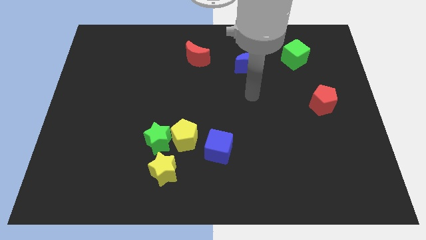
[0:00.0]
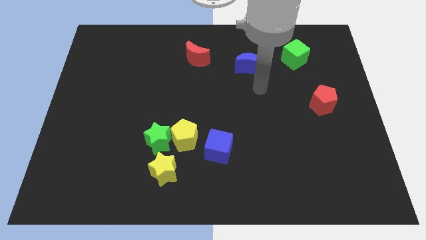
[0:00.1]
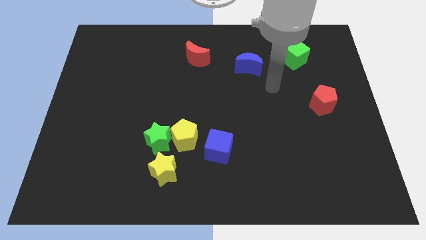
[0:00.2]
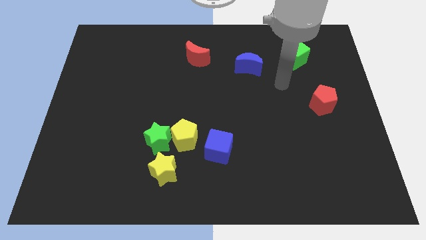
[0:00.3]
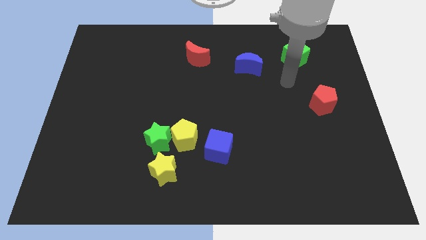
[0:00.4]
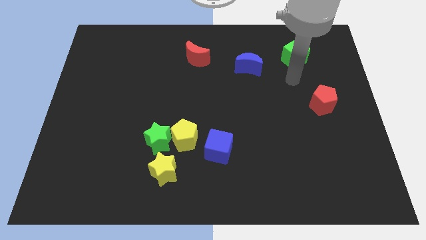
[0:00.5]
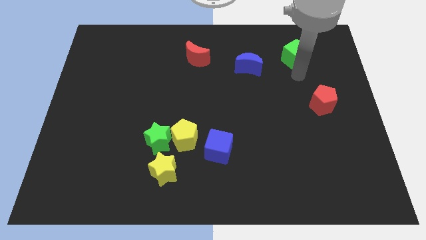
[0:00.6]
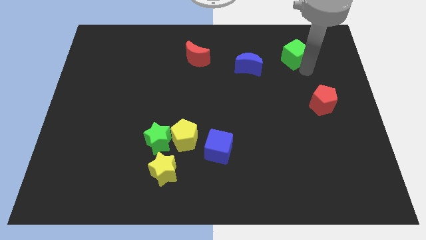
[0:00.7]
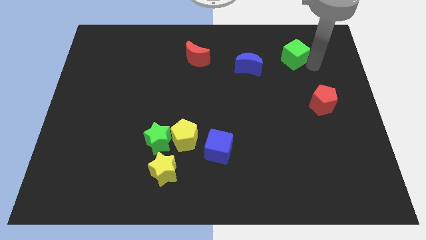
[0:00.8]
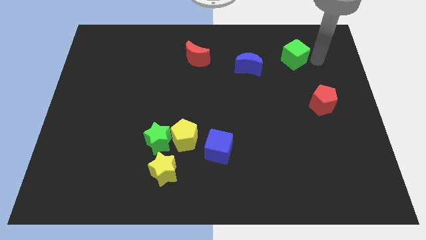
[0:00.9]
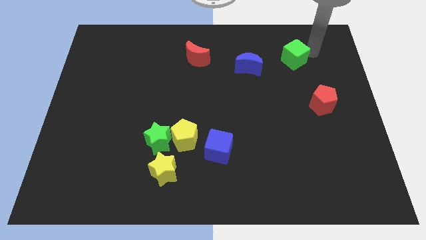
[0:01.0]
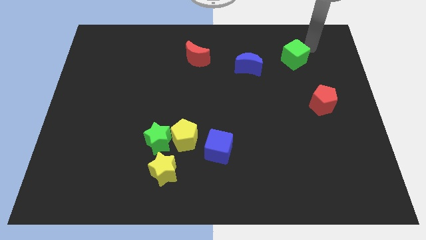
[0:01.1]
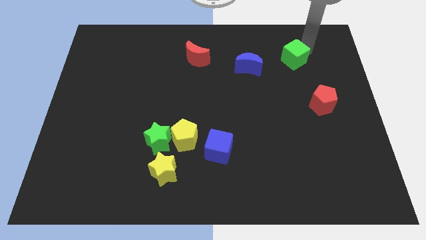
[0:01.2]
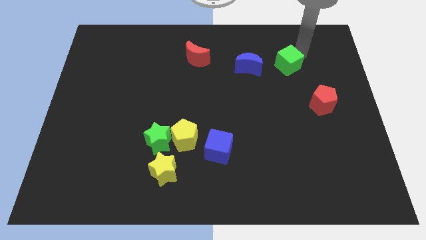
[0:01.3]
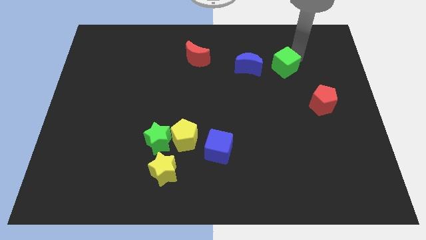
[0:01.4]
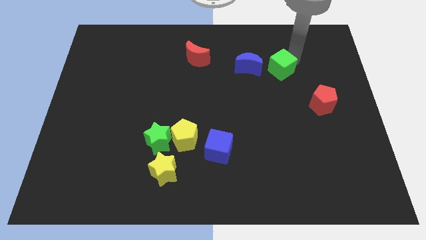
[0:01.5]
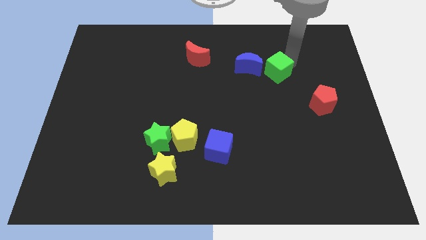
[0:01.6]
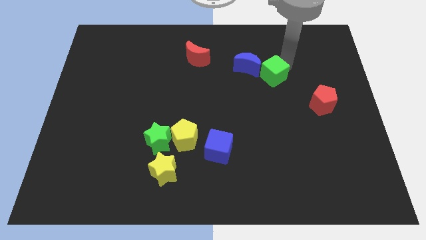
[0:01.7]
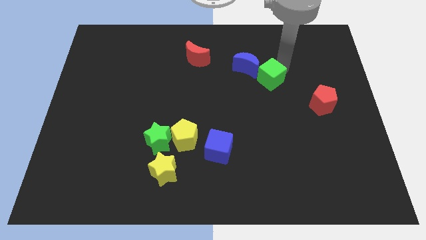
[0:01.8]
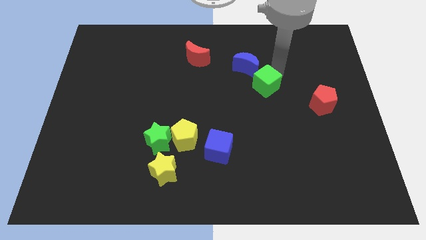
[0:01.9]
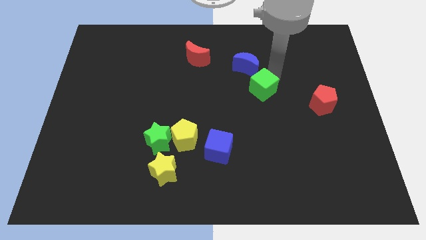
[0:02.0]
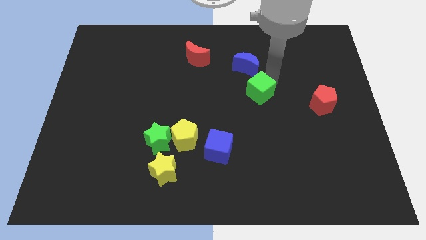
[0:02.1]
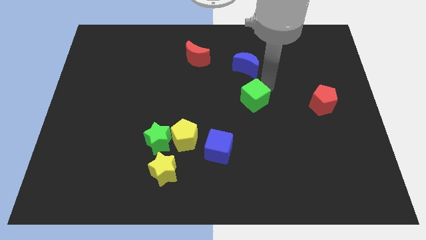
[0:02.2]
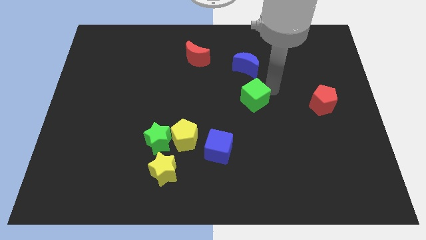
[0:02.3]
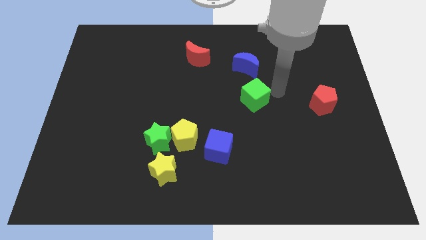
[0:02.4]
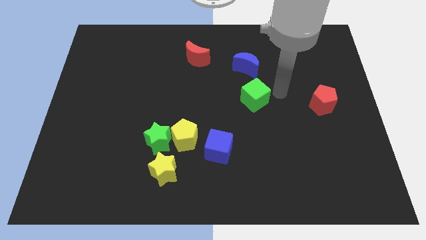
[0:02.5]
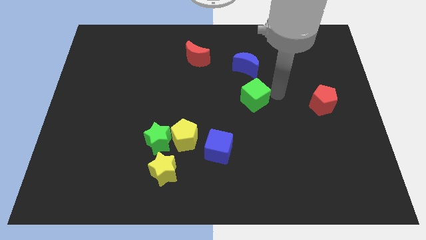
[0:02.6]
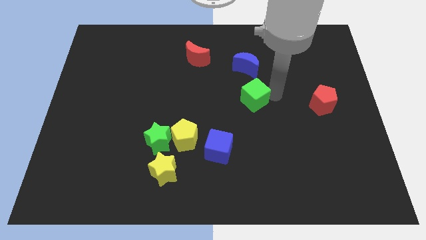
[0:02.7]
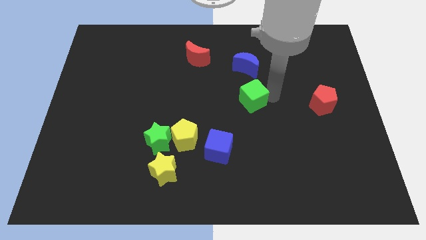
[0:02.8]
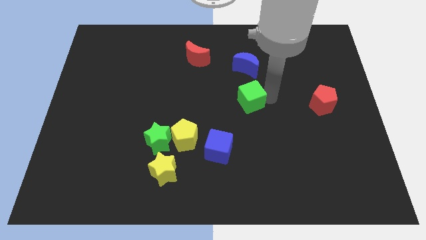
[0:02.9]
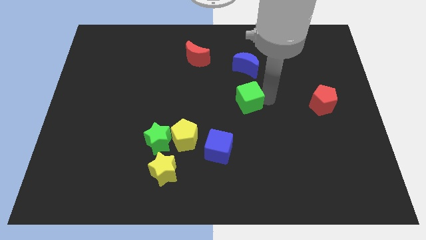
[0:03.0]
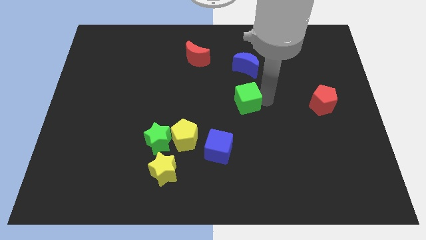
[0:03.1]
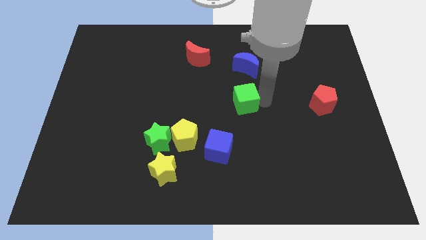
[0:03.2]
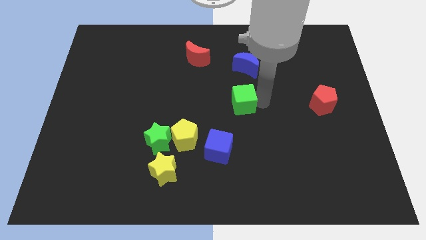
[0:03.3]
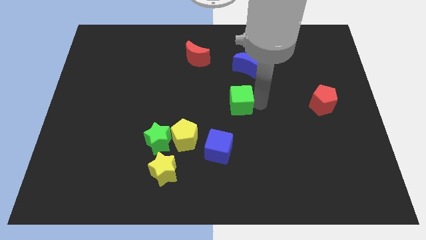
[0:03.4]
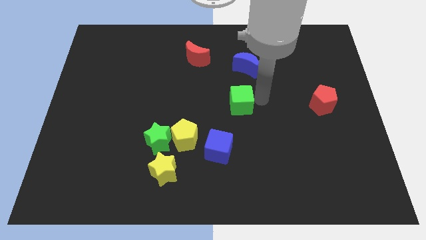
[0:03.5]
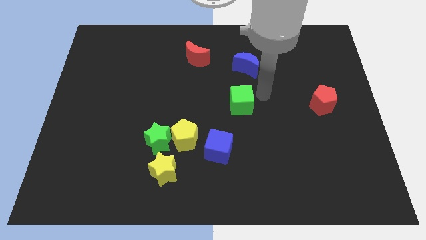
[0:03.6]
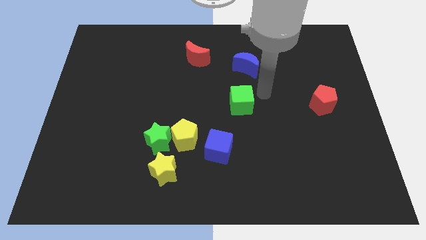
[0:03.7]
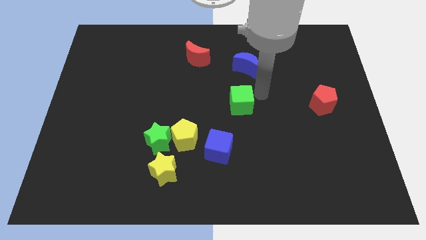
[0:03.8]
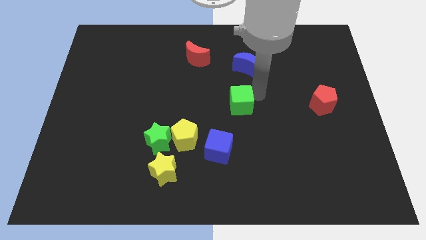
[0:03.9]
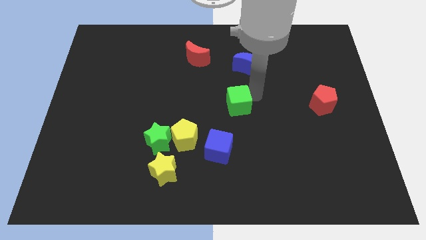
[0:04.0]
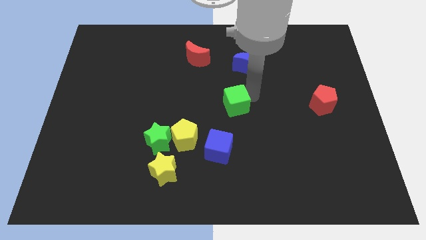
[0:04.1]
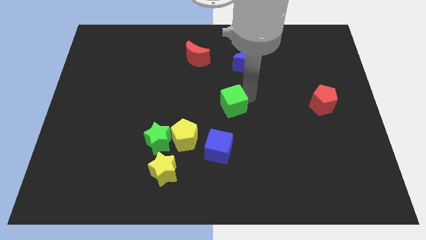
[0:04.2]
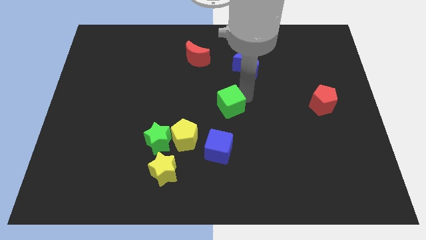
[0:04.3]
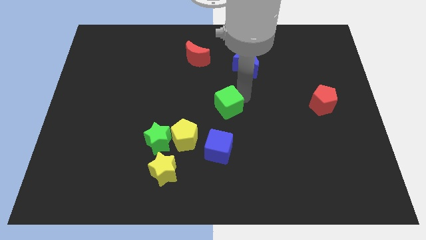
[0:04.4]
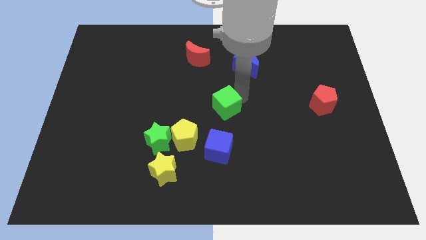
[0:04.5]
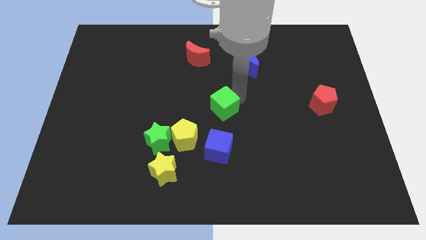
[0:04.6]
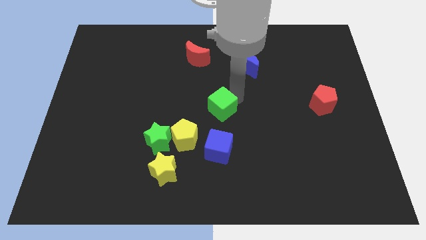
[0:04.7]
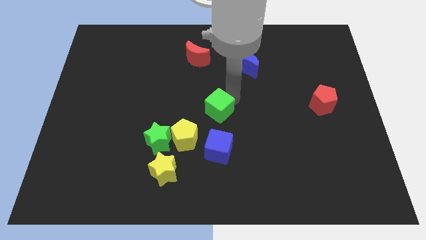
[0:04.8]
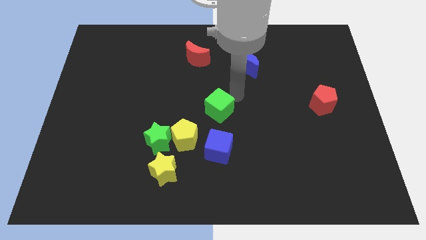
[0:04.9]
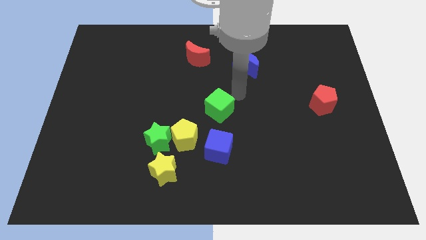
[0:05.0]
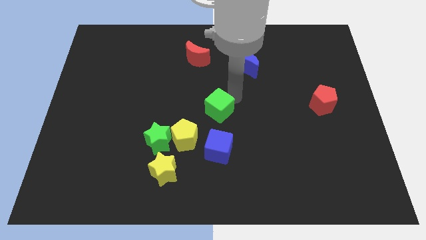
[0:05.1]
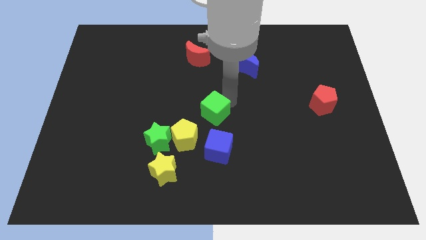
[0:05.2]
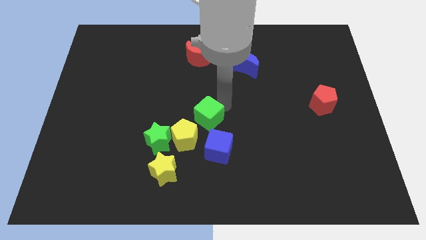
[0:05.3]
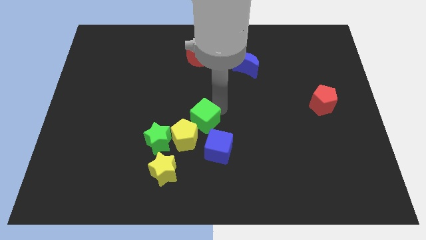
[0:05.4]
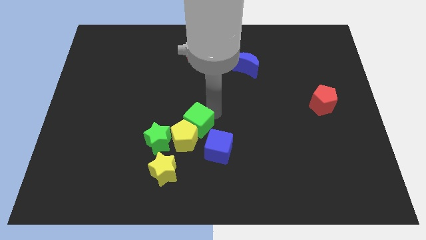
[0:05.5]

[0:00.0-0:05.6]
move the green cube next to the yellow pentagon

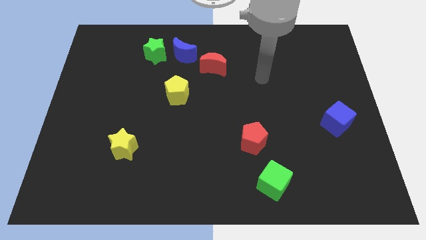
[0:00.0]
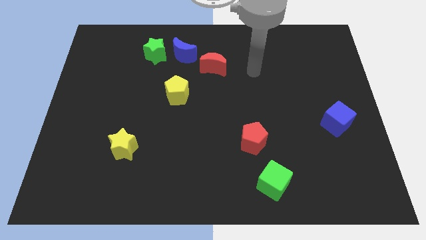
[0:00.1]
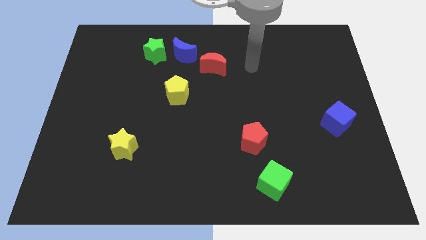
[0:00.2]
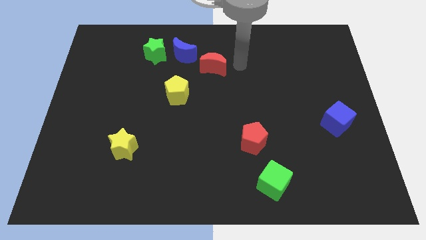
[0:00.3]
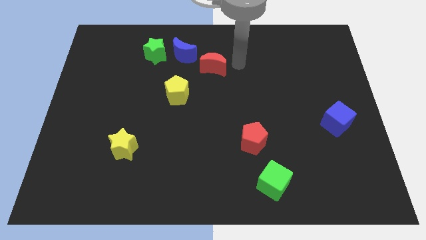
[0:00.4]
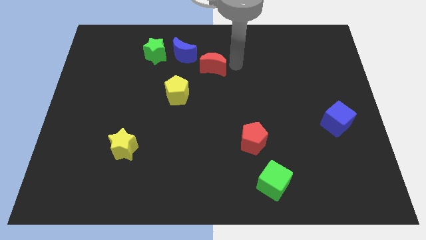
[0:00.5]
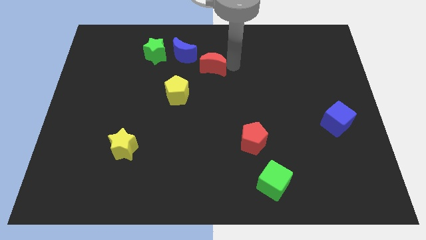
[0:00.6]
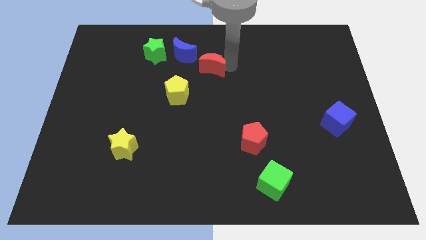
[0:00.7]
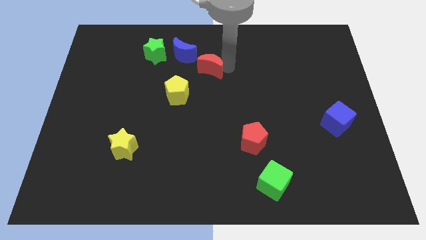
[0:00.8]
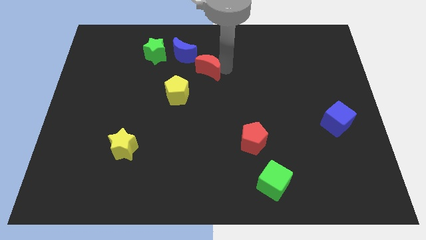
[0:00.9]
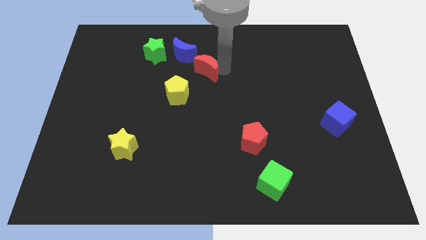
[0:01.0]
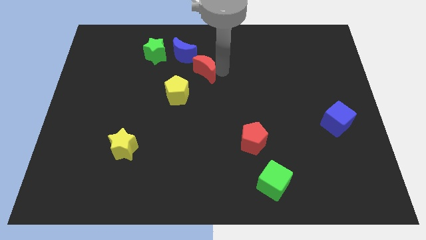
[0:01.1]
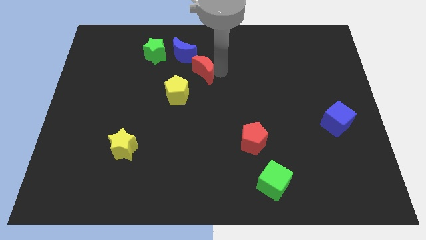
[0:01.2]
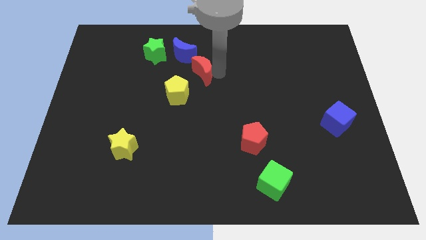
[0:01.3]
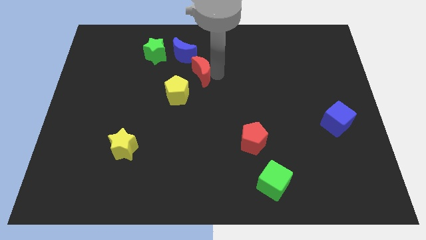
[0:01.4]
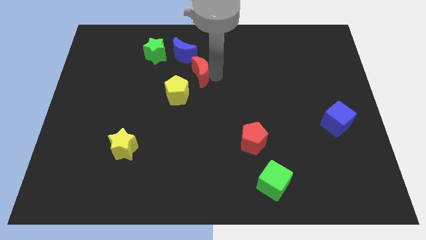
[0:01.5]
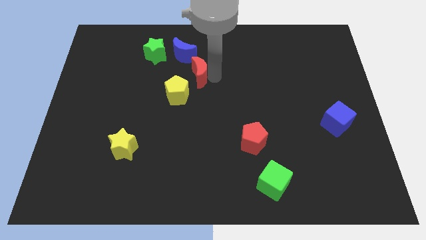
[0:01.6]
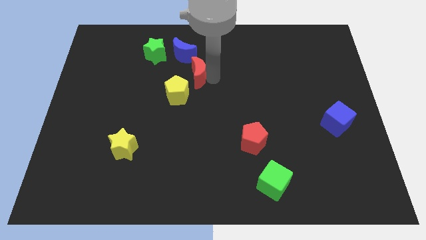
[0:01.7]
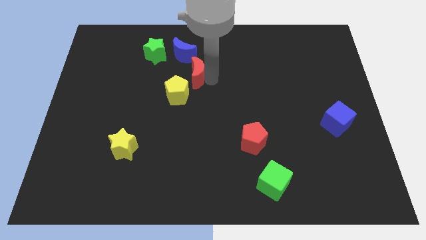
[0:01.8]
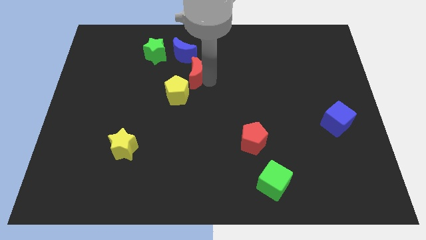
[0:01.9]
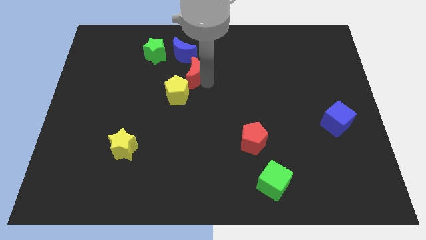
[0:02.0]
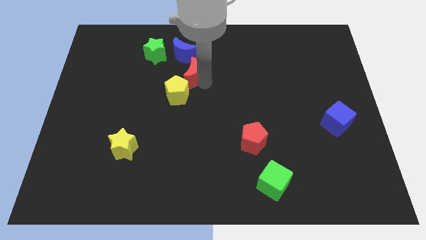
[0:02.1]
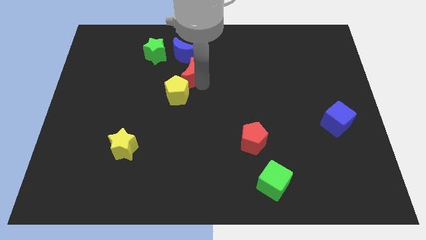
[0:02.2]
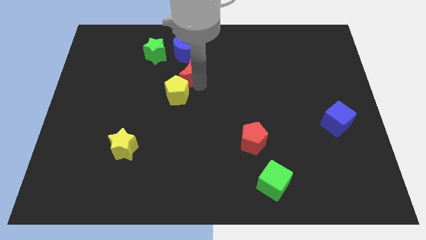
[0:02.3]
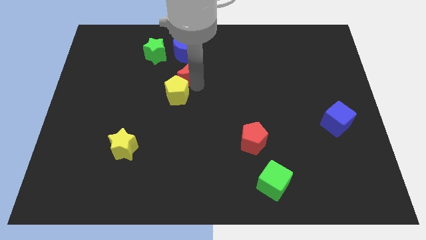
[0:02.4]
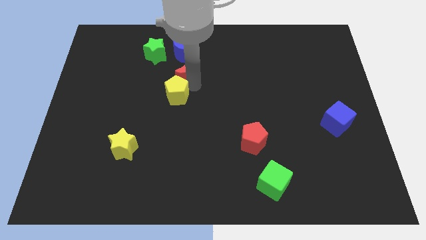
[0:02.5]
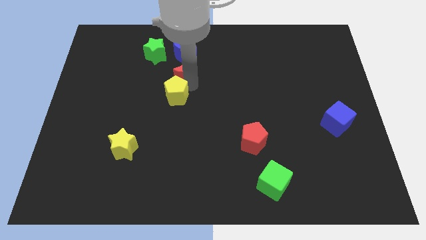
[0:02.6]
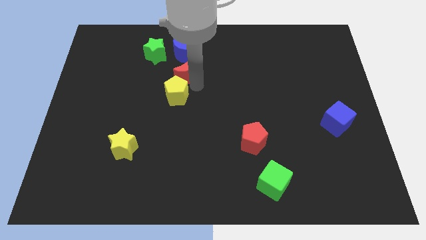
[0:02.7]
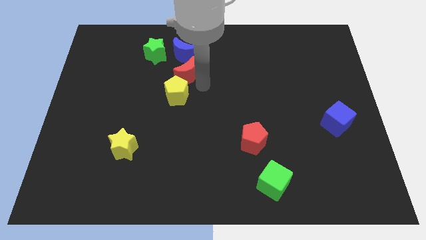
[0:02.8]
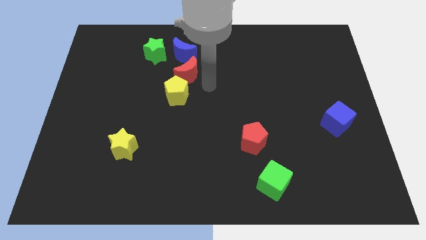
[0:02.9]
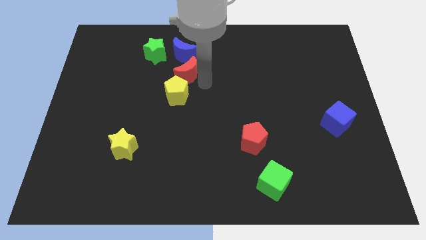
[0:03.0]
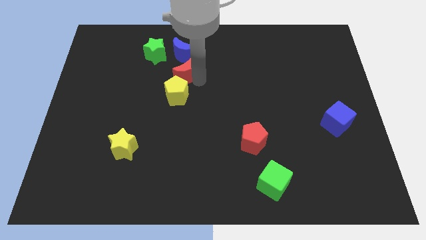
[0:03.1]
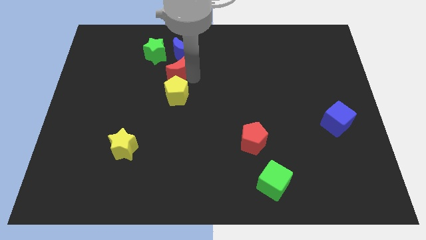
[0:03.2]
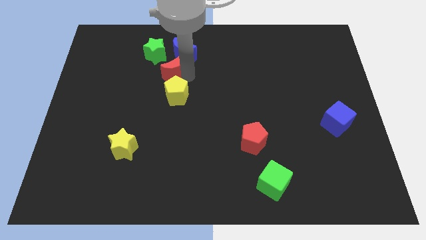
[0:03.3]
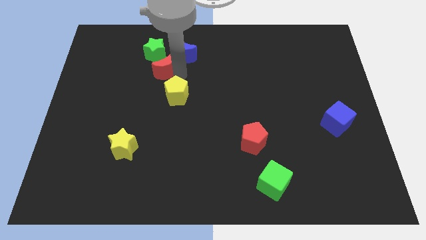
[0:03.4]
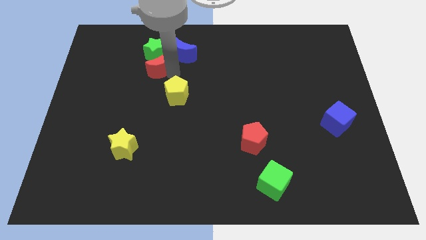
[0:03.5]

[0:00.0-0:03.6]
slide the red moon to the green star
